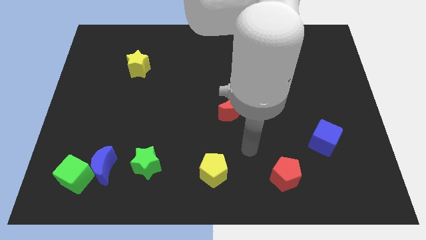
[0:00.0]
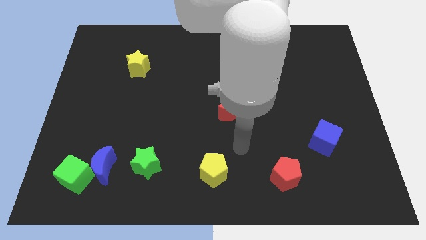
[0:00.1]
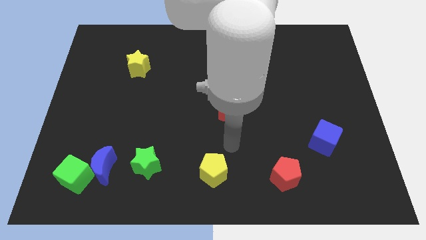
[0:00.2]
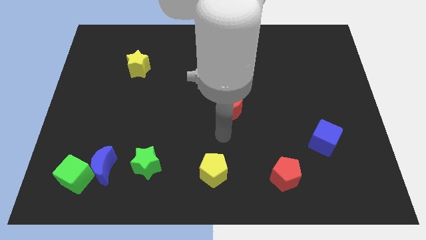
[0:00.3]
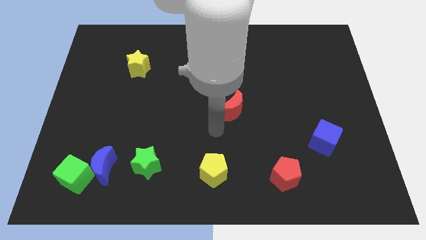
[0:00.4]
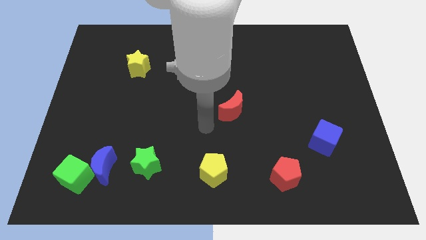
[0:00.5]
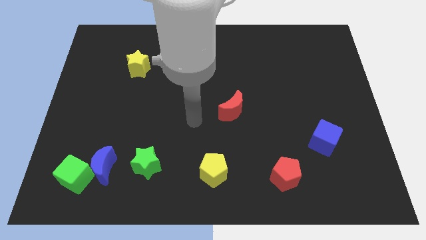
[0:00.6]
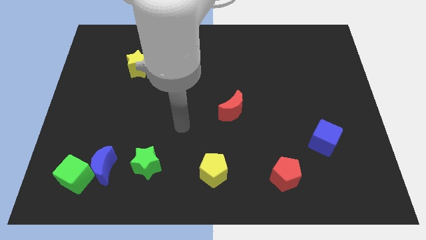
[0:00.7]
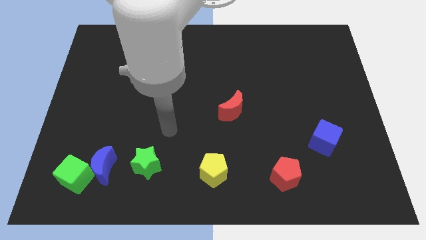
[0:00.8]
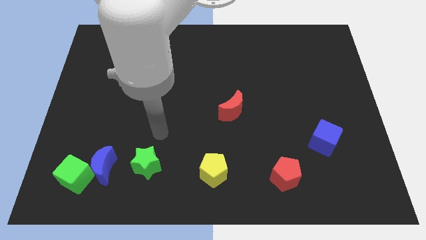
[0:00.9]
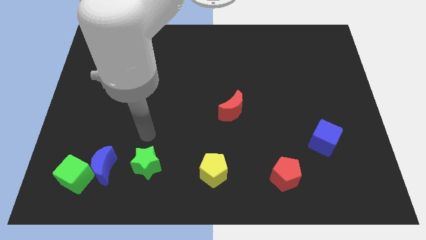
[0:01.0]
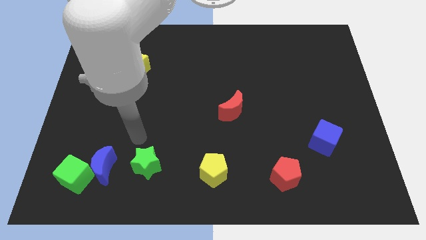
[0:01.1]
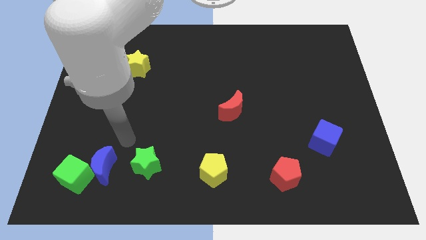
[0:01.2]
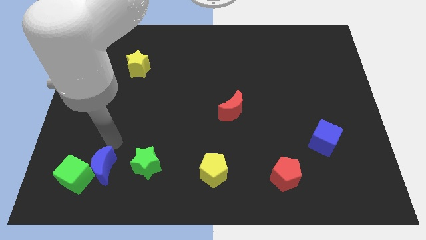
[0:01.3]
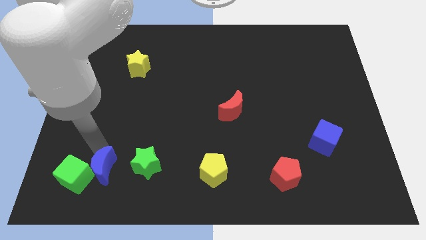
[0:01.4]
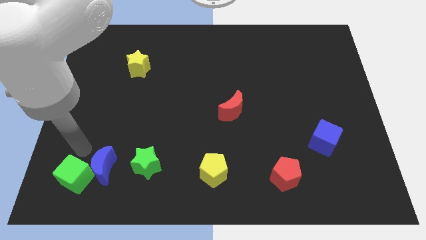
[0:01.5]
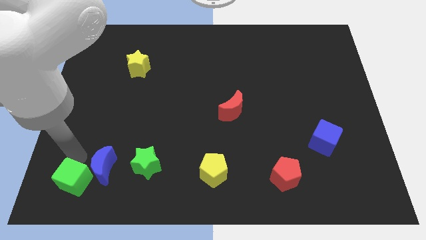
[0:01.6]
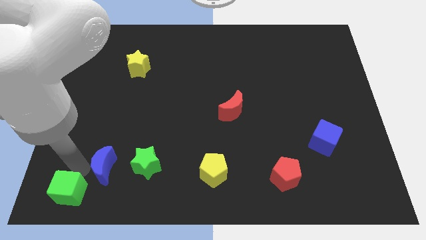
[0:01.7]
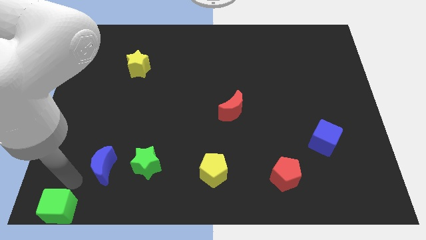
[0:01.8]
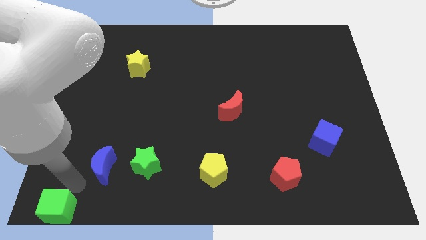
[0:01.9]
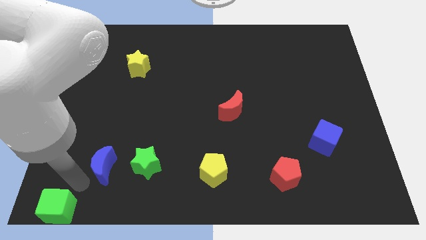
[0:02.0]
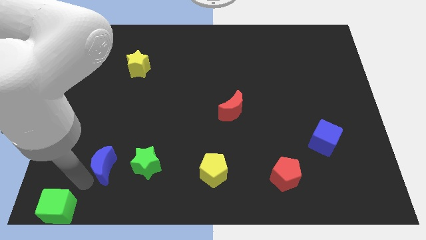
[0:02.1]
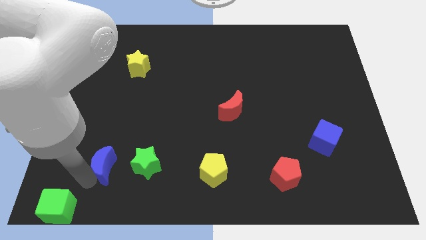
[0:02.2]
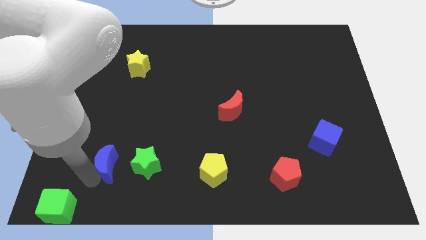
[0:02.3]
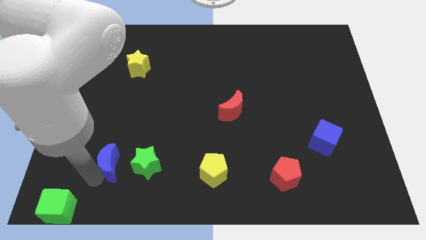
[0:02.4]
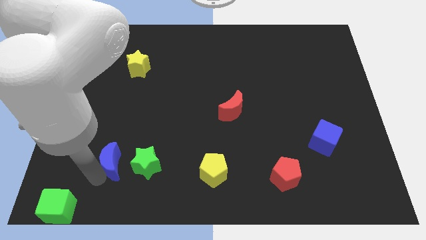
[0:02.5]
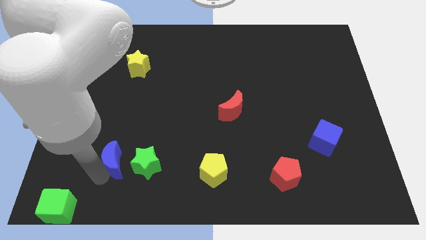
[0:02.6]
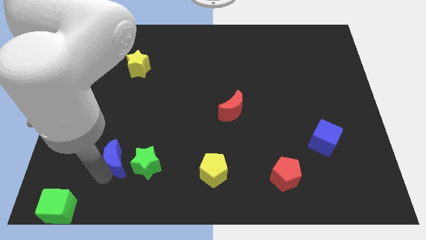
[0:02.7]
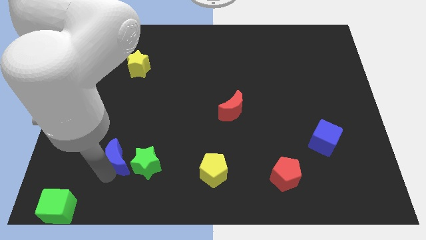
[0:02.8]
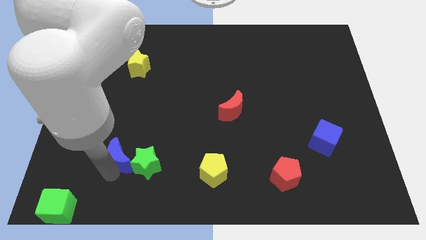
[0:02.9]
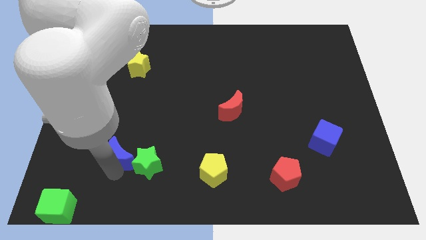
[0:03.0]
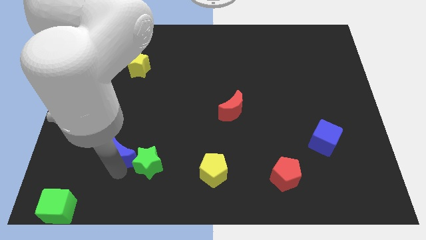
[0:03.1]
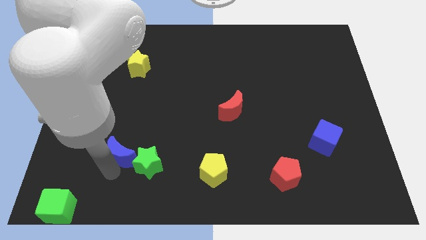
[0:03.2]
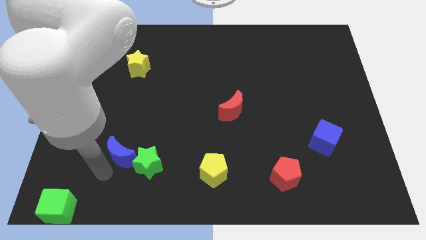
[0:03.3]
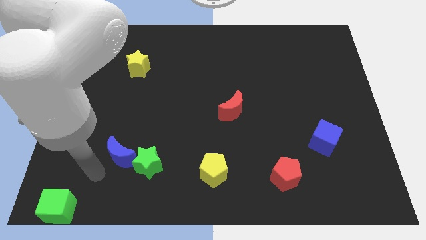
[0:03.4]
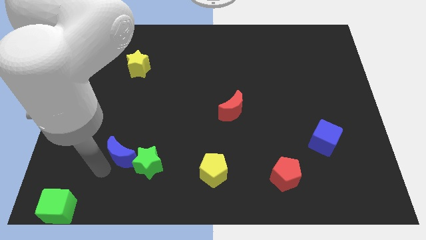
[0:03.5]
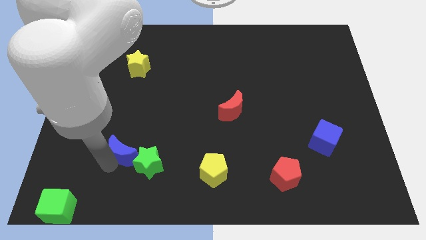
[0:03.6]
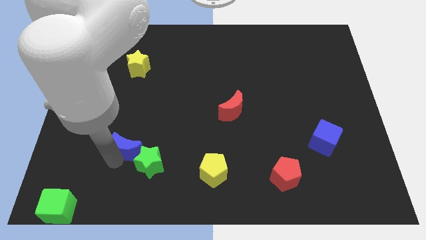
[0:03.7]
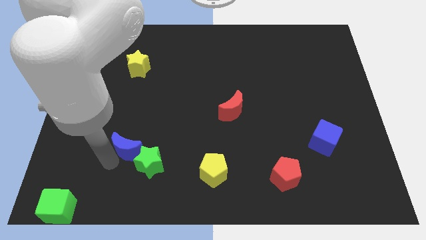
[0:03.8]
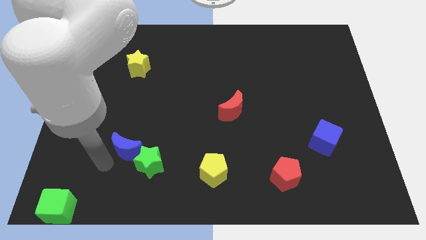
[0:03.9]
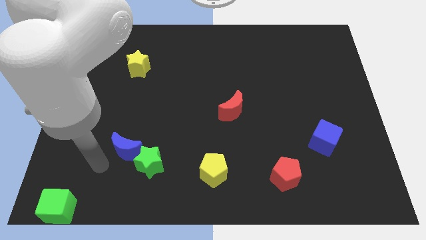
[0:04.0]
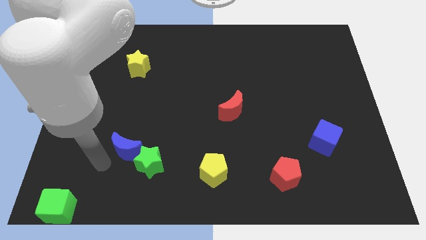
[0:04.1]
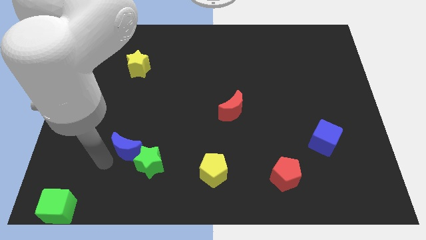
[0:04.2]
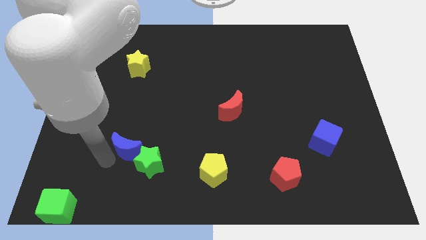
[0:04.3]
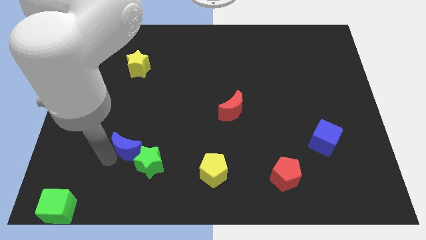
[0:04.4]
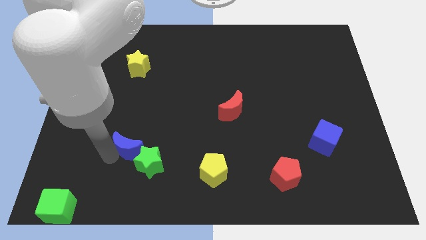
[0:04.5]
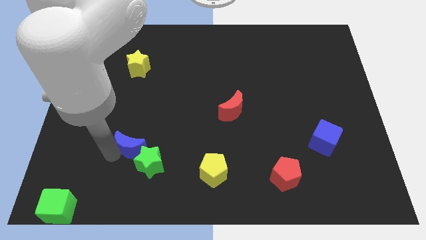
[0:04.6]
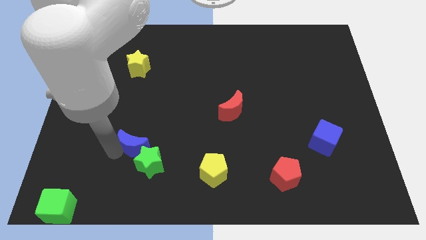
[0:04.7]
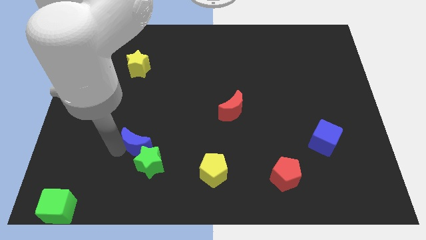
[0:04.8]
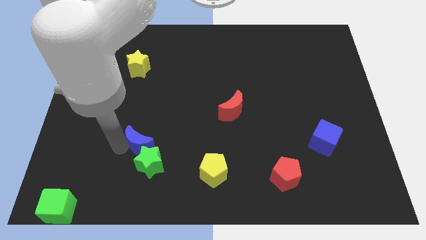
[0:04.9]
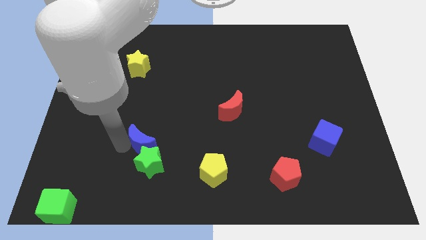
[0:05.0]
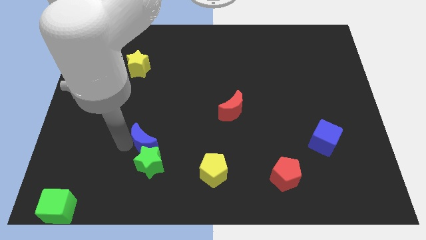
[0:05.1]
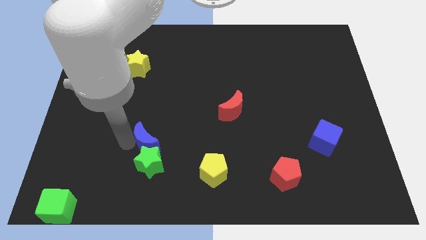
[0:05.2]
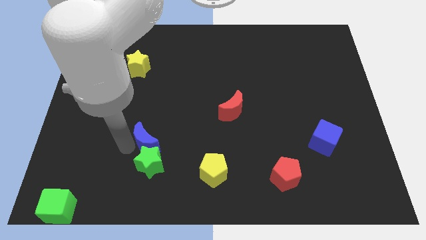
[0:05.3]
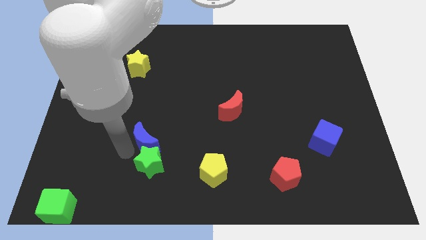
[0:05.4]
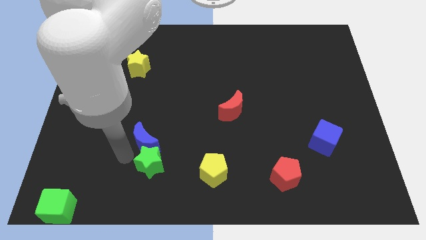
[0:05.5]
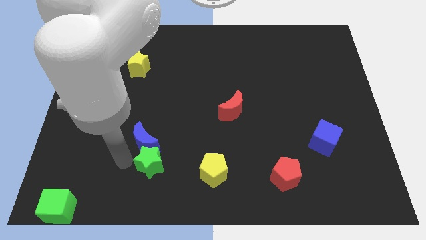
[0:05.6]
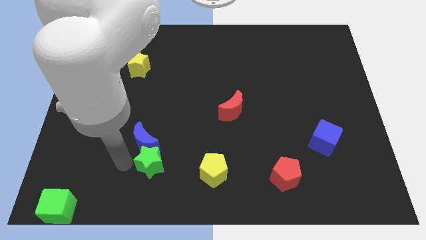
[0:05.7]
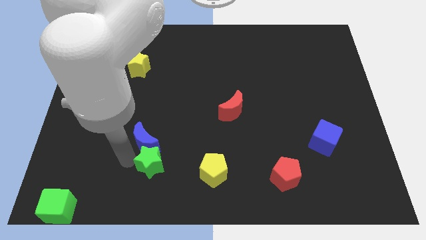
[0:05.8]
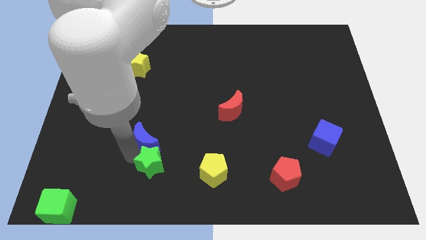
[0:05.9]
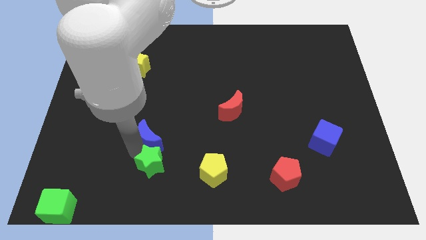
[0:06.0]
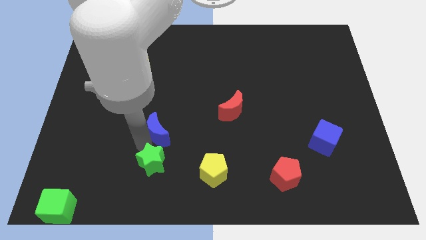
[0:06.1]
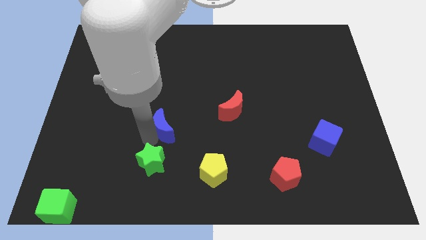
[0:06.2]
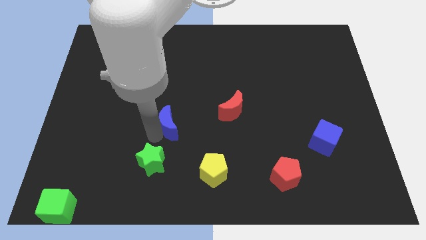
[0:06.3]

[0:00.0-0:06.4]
put the blue moon to the center

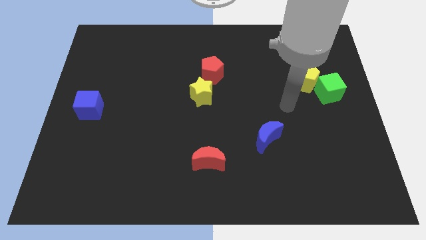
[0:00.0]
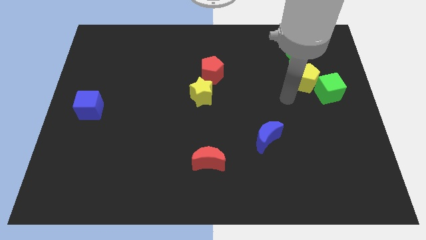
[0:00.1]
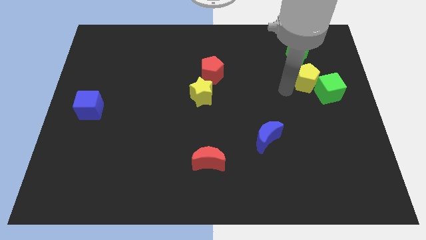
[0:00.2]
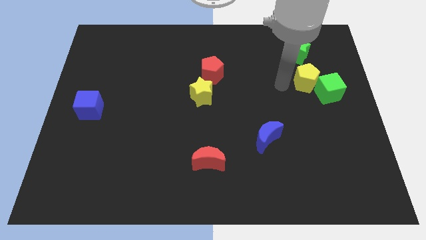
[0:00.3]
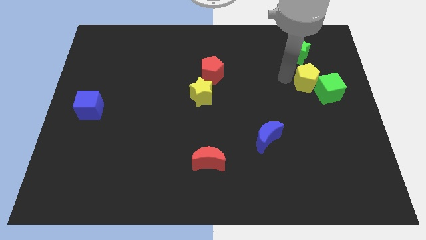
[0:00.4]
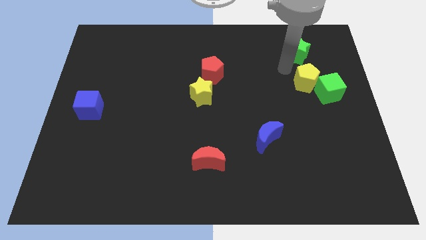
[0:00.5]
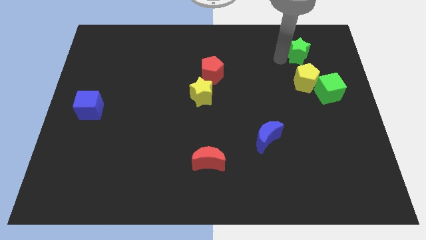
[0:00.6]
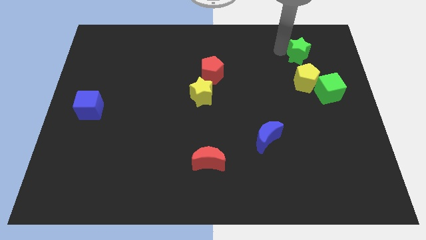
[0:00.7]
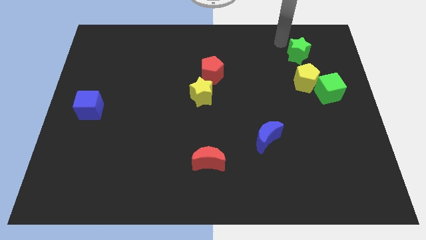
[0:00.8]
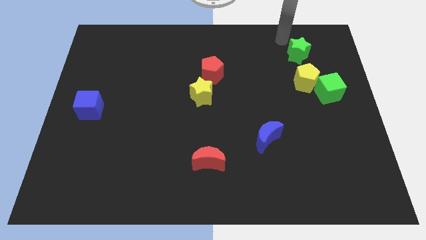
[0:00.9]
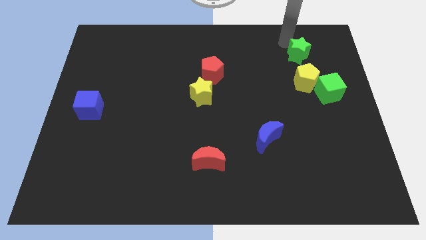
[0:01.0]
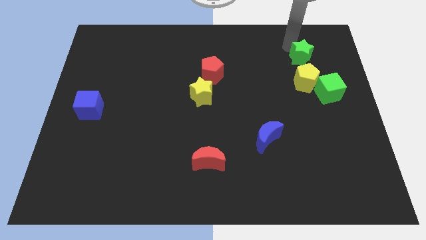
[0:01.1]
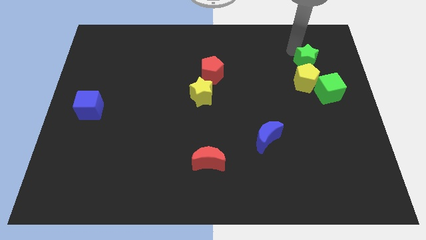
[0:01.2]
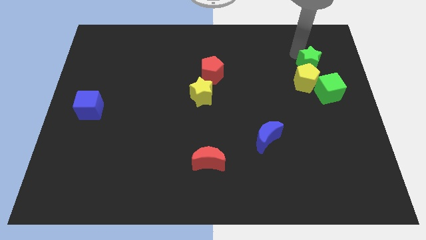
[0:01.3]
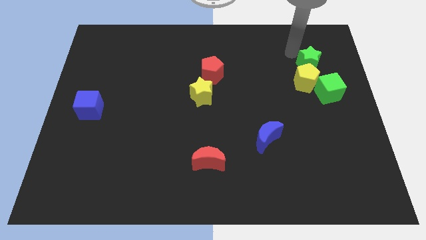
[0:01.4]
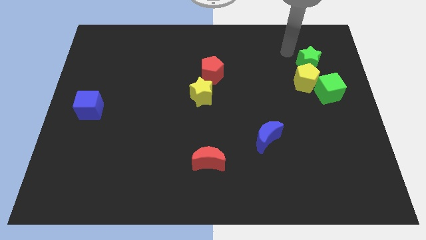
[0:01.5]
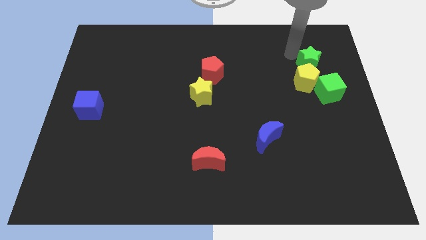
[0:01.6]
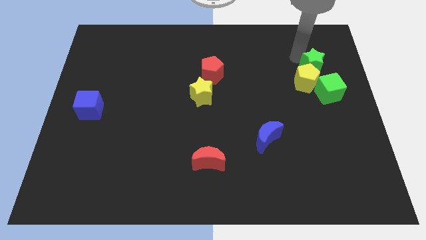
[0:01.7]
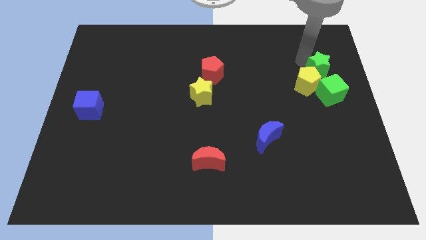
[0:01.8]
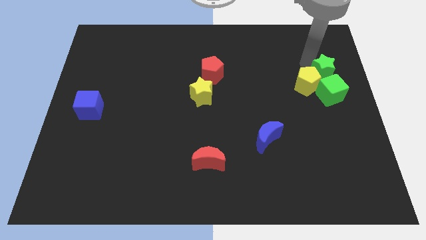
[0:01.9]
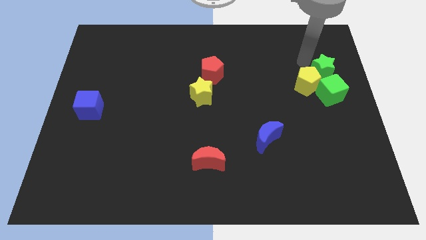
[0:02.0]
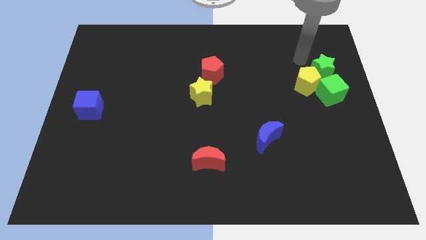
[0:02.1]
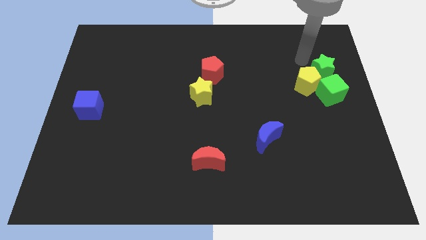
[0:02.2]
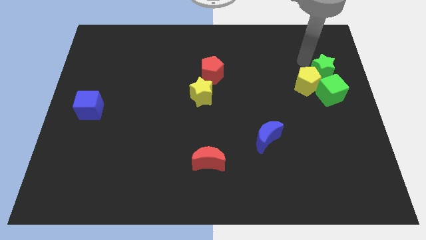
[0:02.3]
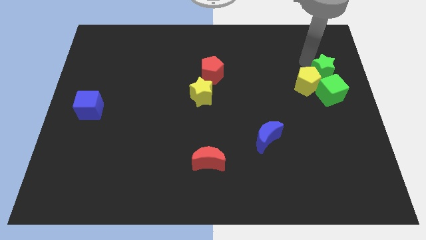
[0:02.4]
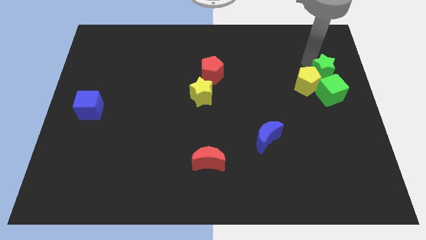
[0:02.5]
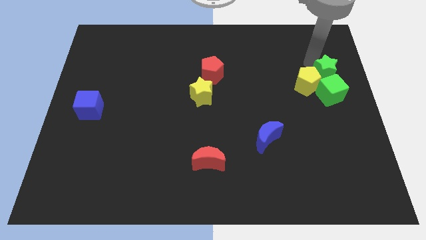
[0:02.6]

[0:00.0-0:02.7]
put the green star to the center right
